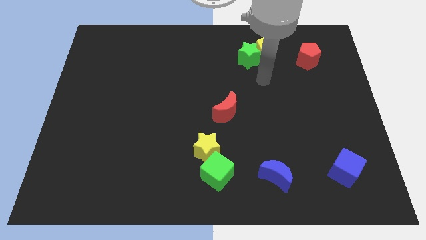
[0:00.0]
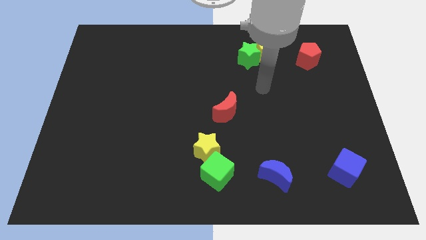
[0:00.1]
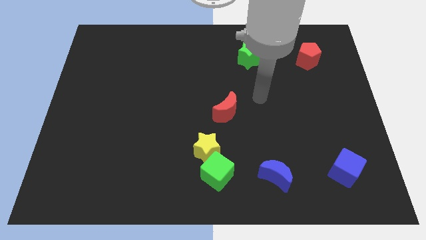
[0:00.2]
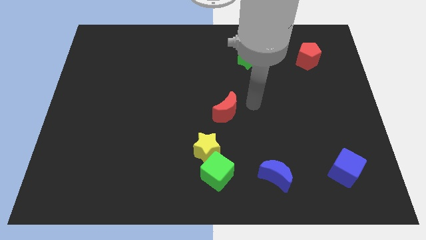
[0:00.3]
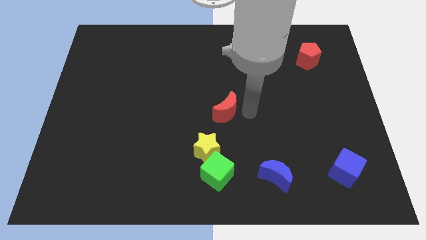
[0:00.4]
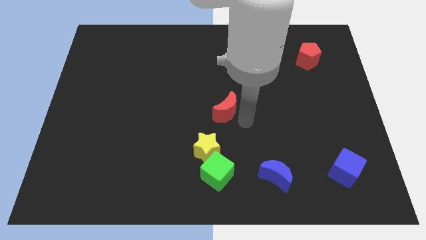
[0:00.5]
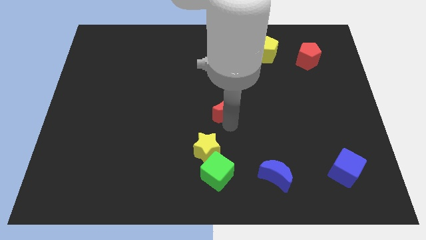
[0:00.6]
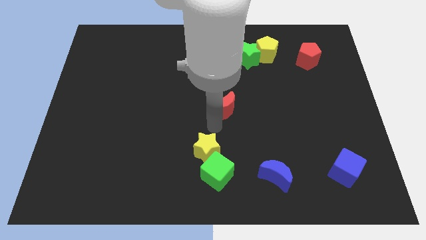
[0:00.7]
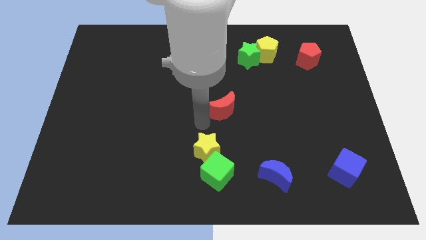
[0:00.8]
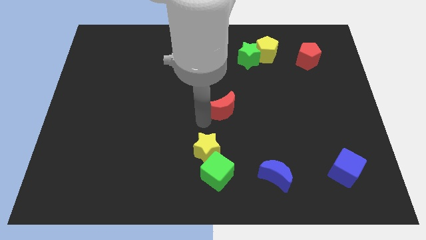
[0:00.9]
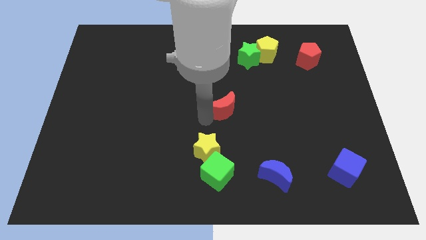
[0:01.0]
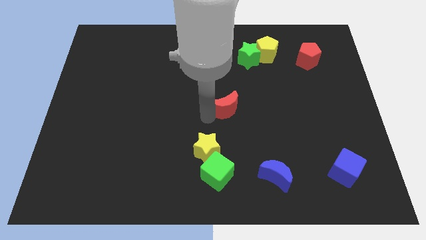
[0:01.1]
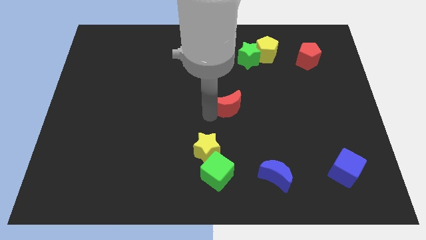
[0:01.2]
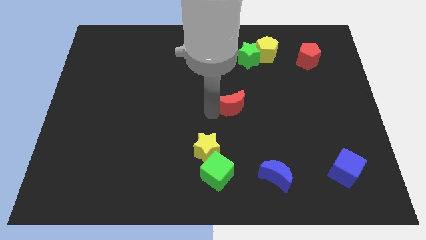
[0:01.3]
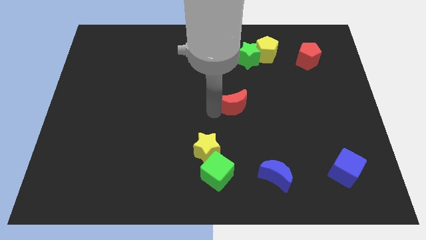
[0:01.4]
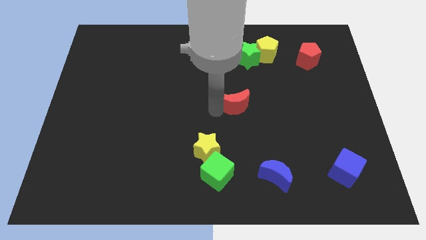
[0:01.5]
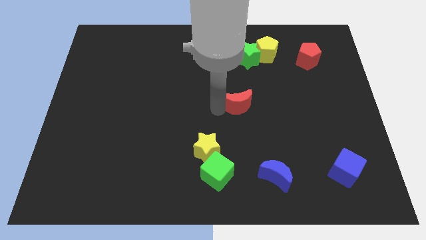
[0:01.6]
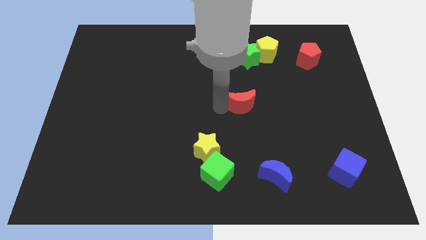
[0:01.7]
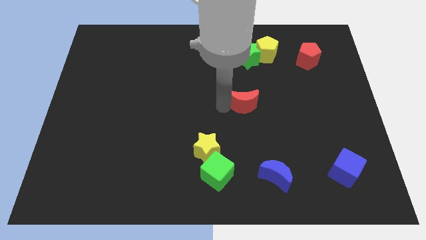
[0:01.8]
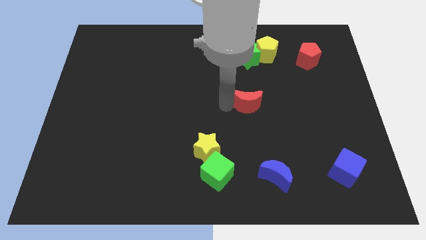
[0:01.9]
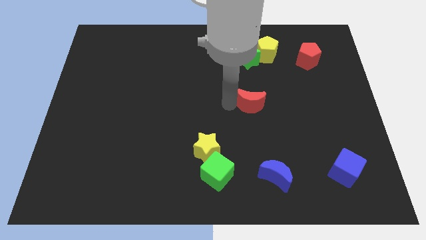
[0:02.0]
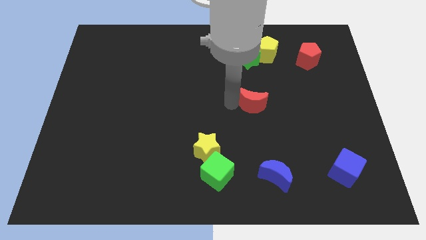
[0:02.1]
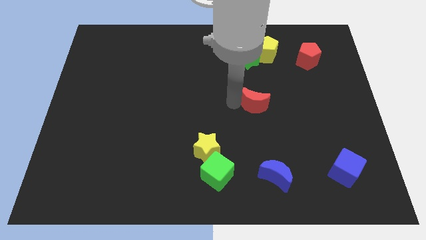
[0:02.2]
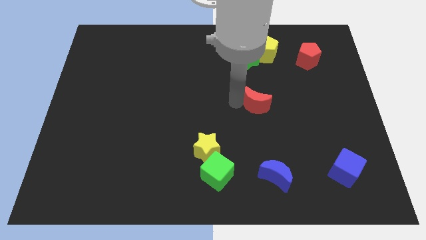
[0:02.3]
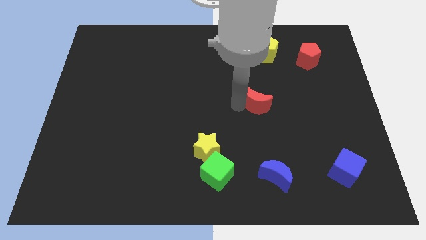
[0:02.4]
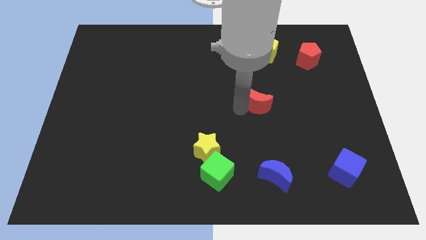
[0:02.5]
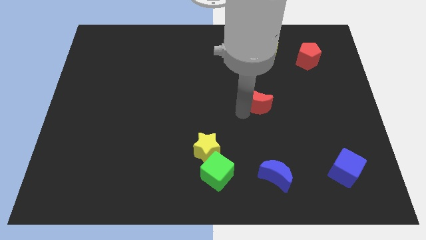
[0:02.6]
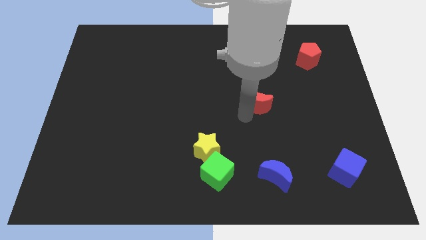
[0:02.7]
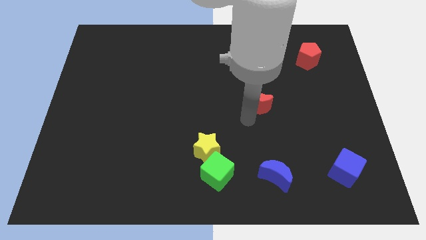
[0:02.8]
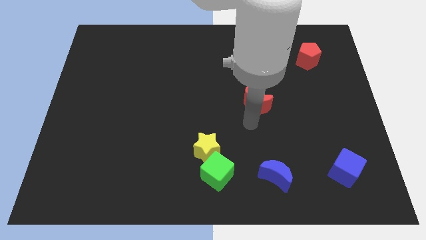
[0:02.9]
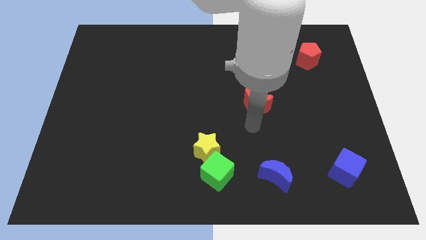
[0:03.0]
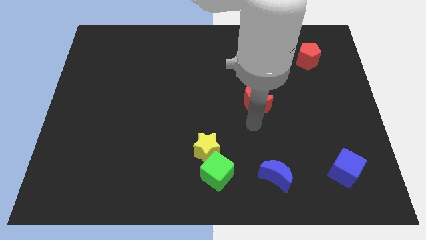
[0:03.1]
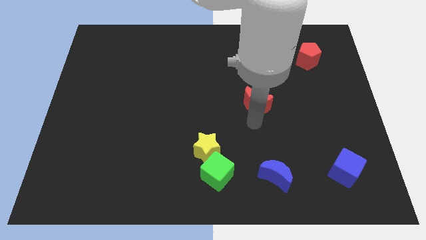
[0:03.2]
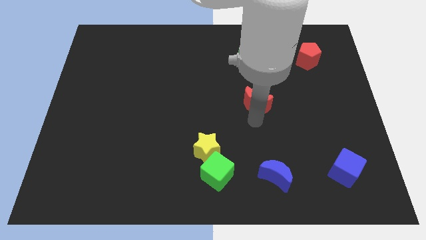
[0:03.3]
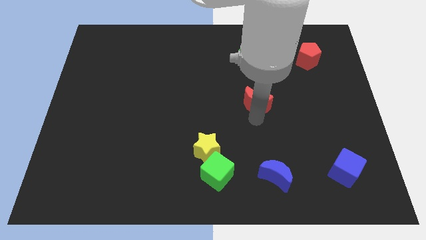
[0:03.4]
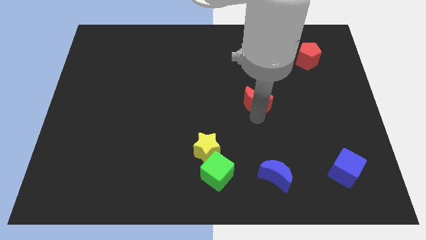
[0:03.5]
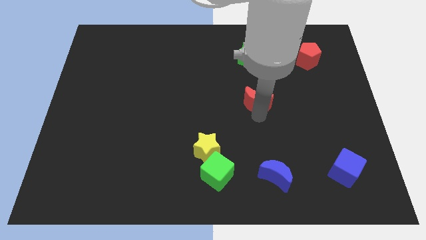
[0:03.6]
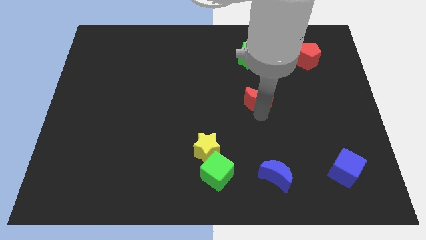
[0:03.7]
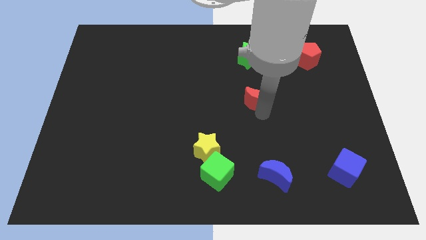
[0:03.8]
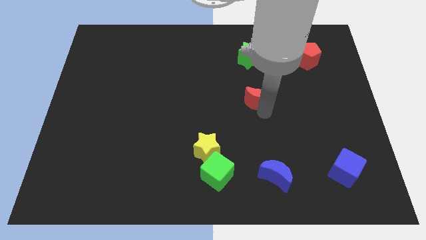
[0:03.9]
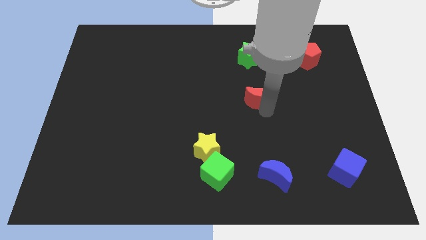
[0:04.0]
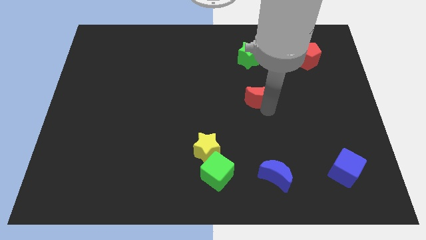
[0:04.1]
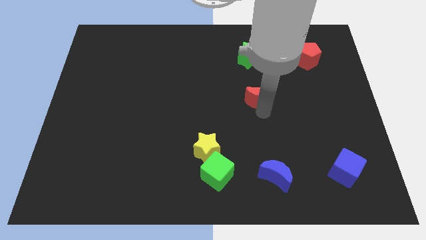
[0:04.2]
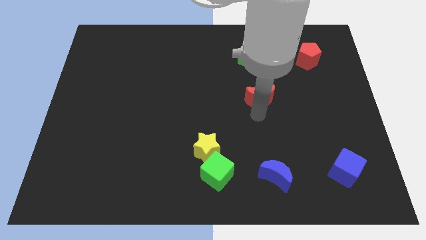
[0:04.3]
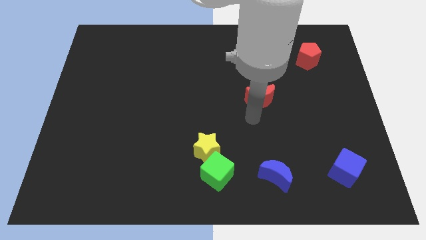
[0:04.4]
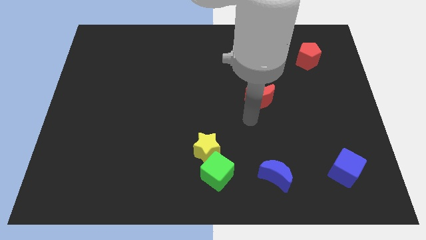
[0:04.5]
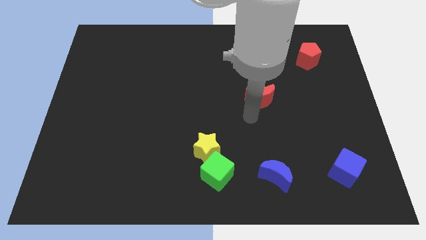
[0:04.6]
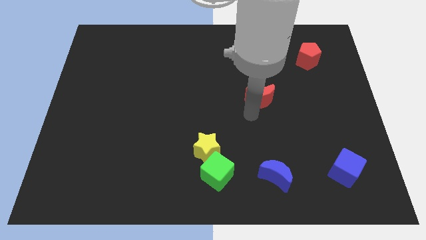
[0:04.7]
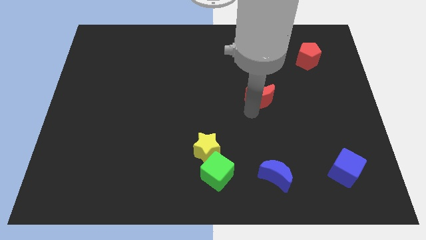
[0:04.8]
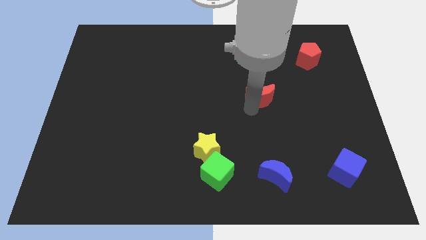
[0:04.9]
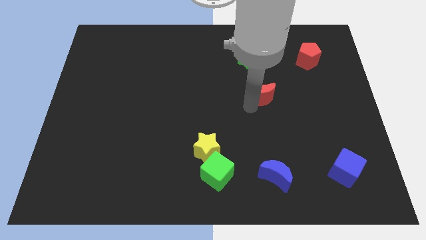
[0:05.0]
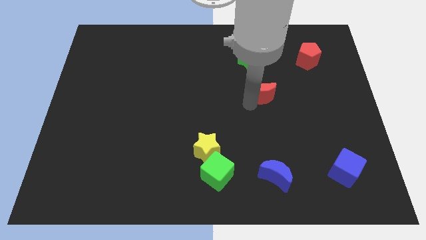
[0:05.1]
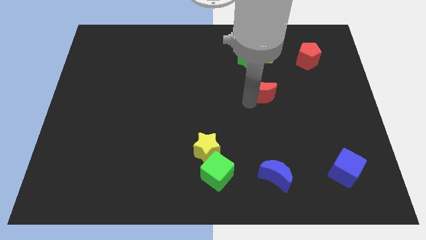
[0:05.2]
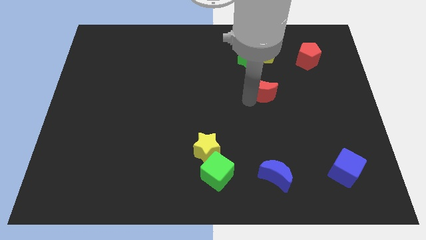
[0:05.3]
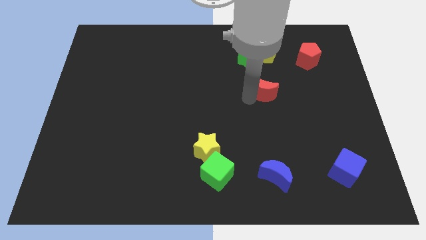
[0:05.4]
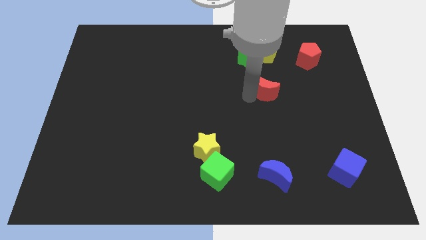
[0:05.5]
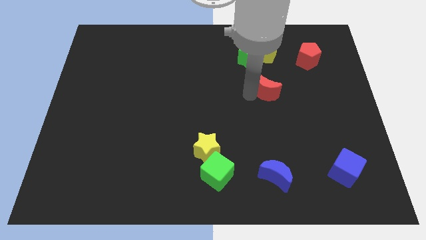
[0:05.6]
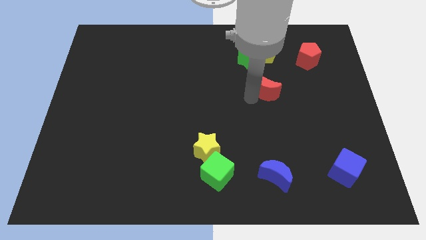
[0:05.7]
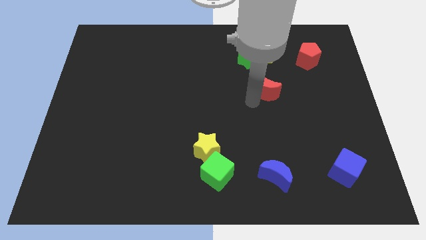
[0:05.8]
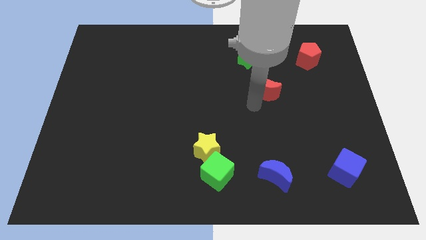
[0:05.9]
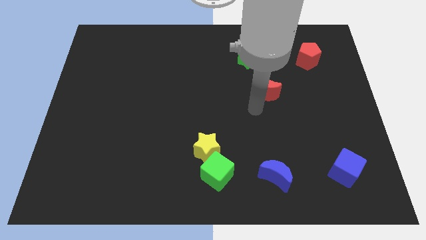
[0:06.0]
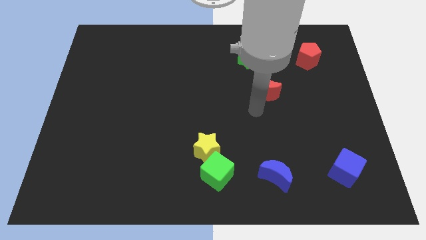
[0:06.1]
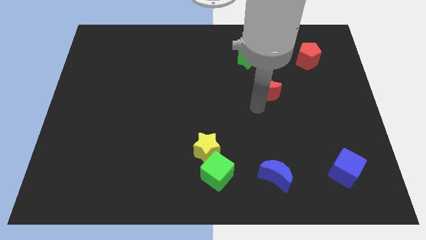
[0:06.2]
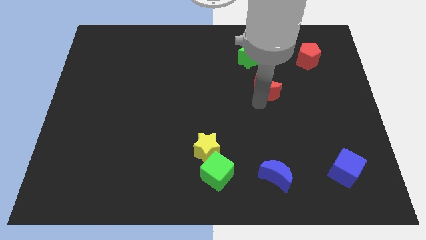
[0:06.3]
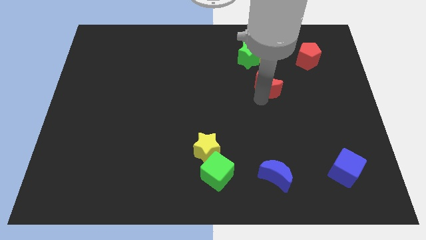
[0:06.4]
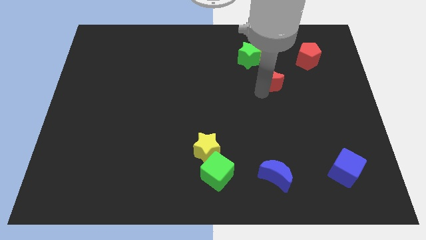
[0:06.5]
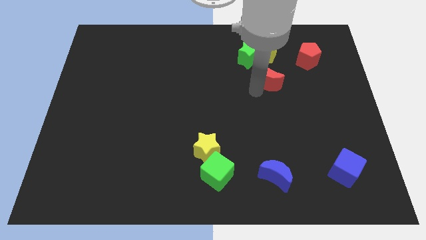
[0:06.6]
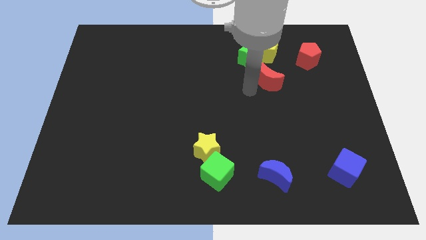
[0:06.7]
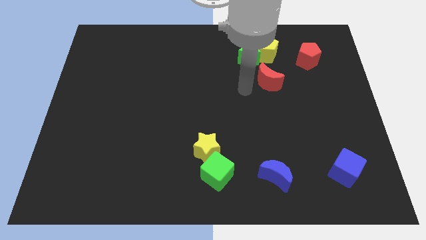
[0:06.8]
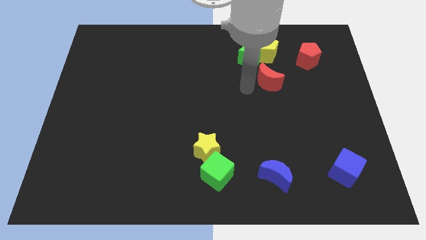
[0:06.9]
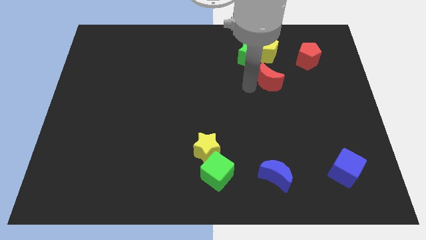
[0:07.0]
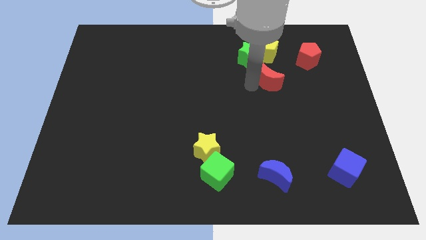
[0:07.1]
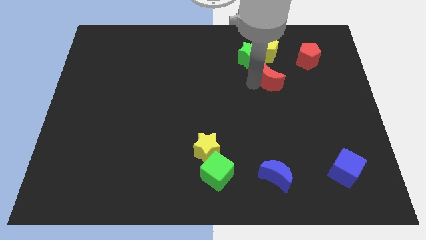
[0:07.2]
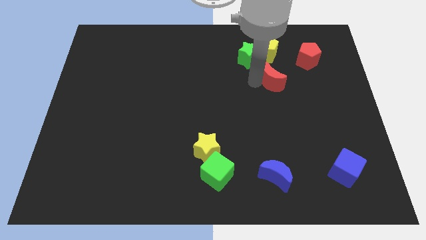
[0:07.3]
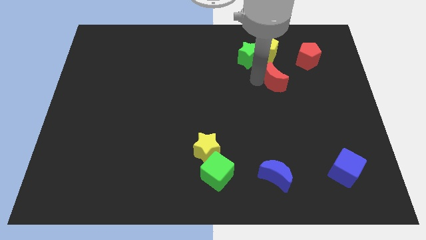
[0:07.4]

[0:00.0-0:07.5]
move the red moon to the bottom left of the red pentagon

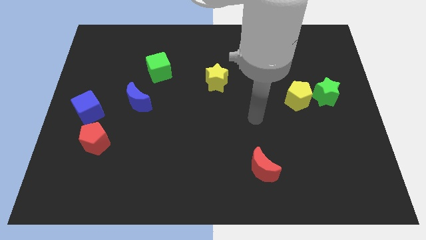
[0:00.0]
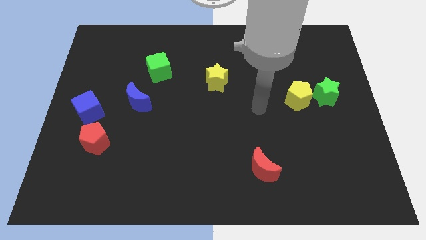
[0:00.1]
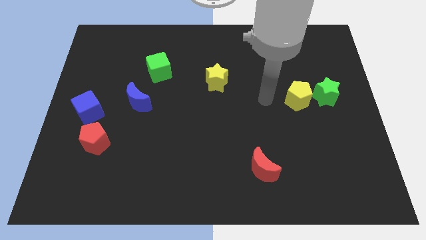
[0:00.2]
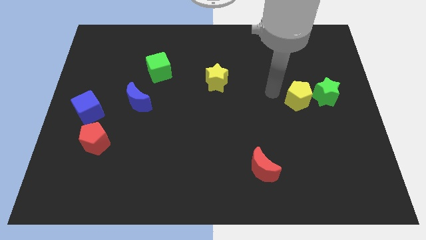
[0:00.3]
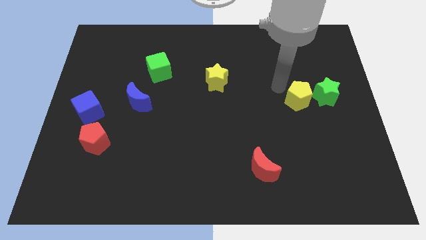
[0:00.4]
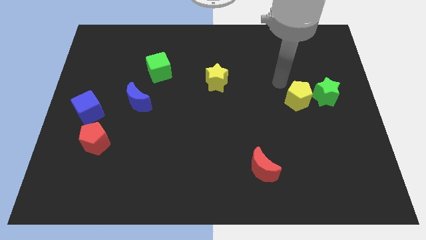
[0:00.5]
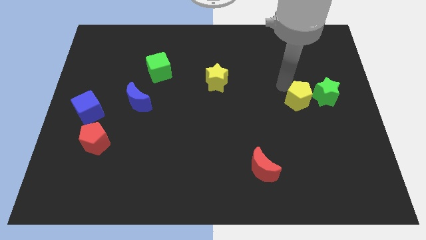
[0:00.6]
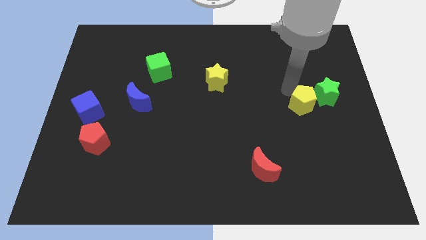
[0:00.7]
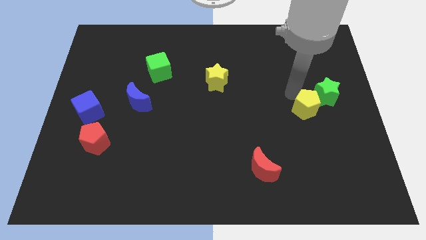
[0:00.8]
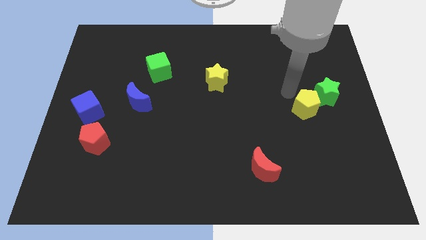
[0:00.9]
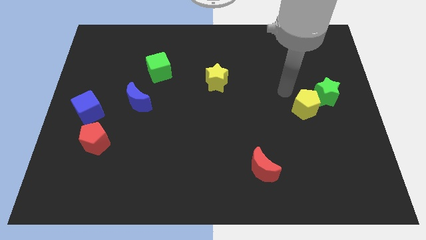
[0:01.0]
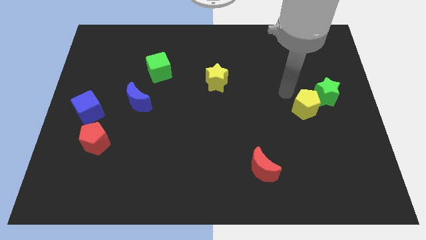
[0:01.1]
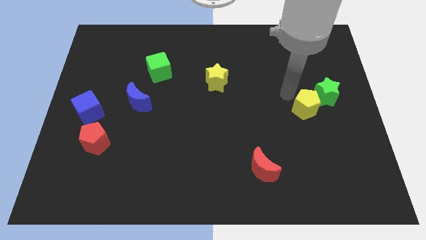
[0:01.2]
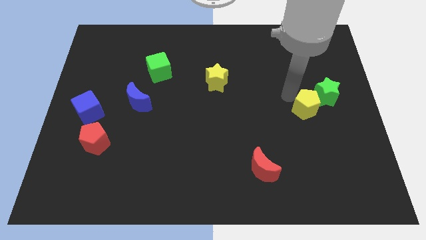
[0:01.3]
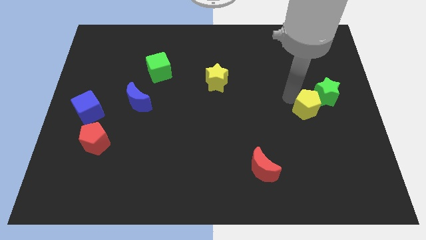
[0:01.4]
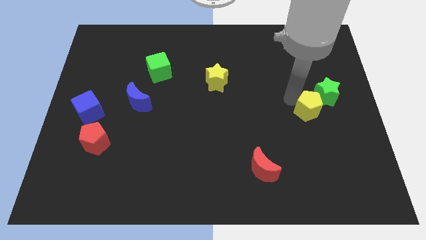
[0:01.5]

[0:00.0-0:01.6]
slide the yellow pentagon to the bottom of the green star
